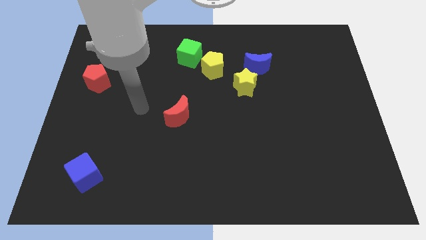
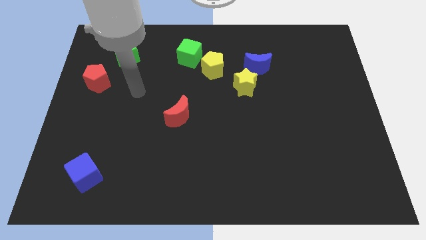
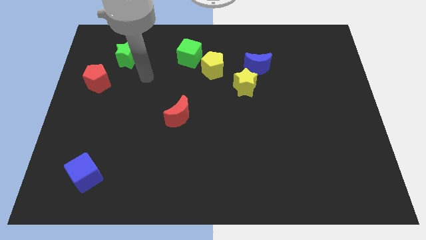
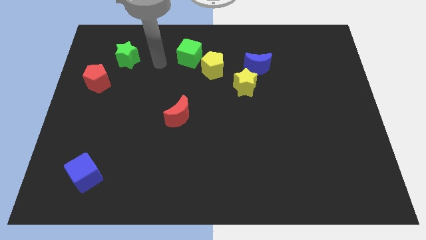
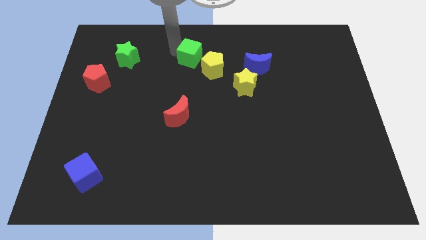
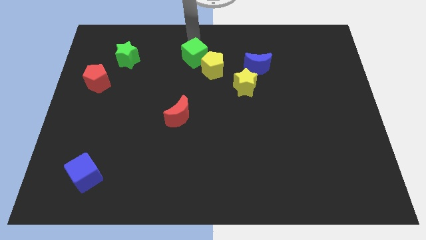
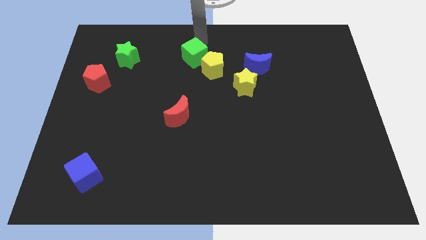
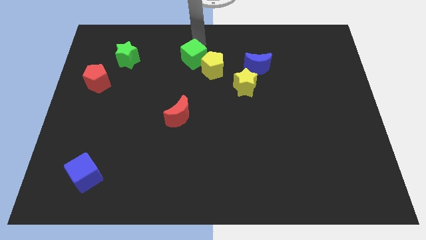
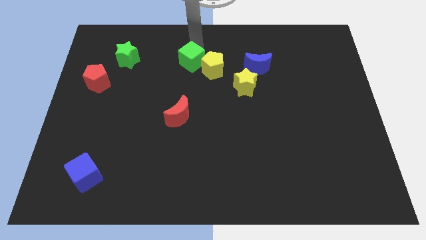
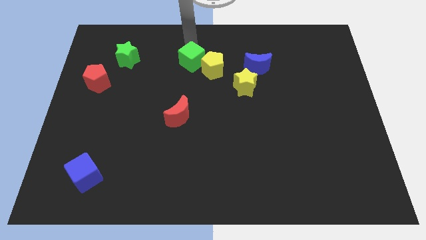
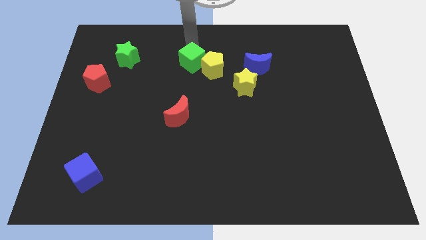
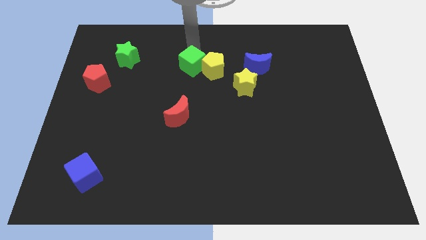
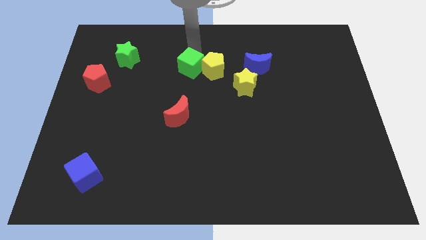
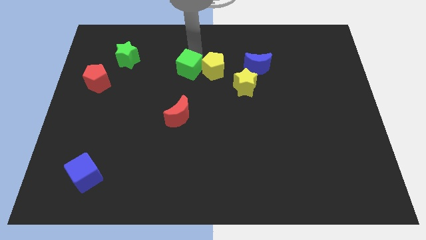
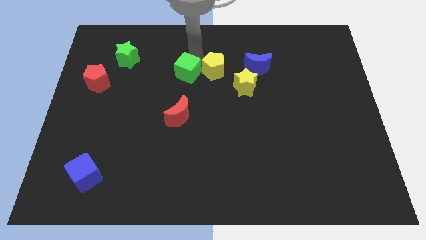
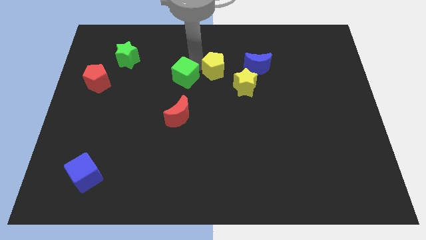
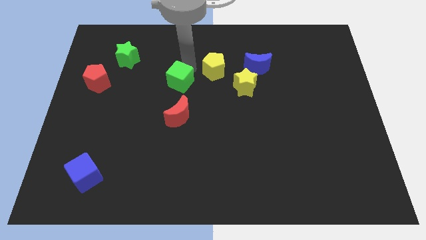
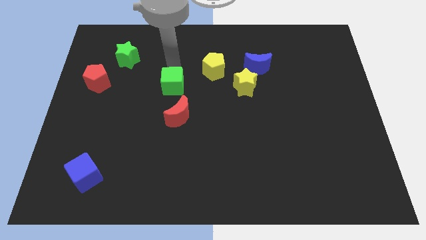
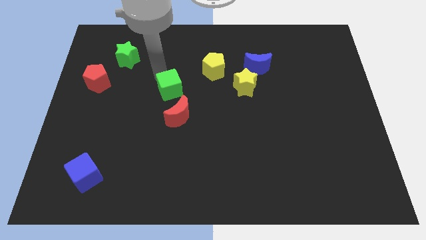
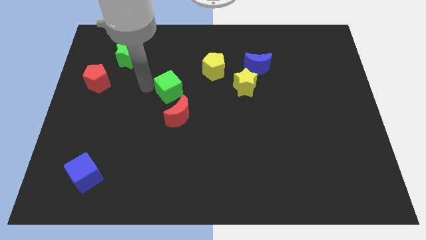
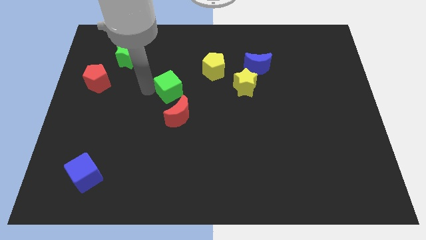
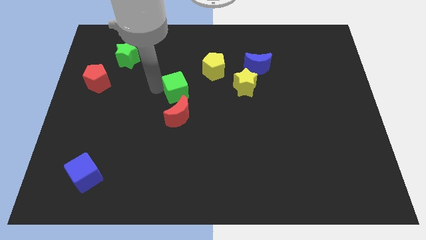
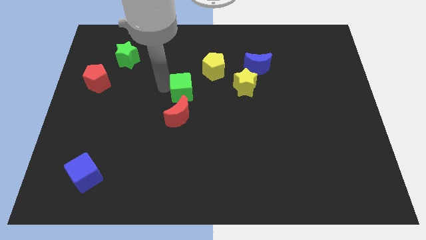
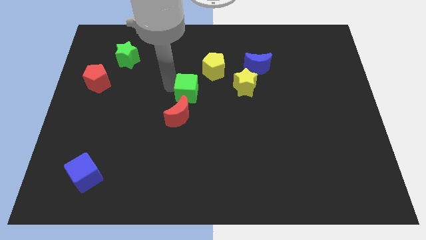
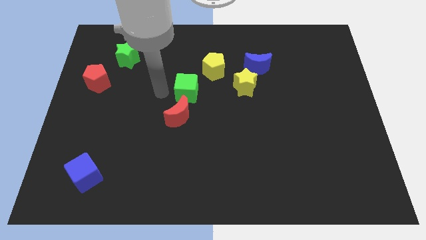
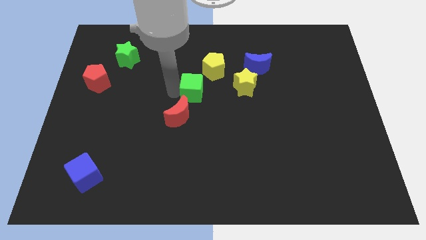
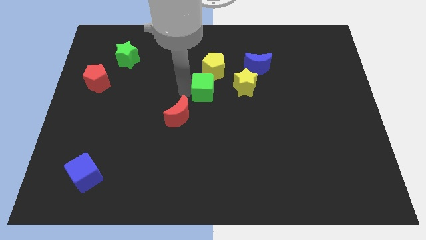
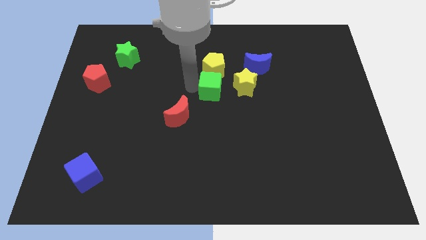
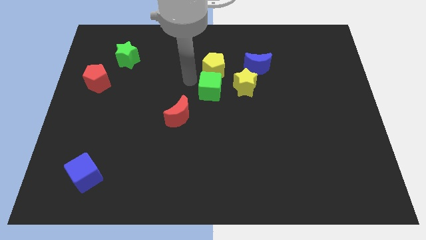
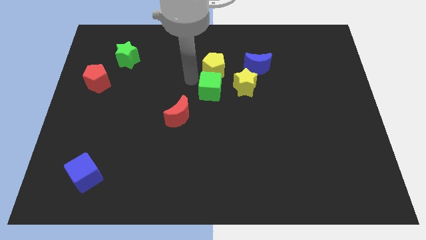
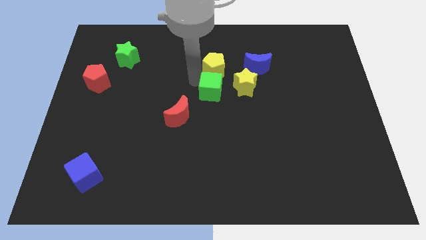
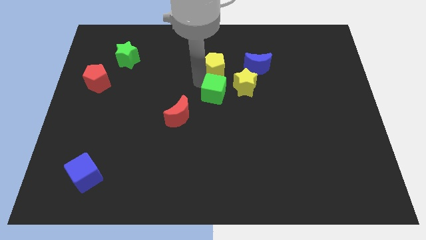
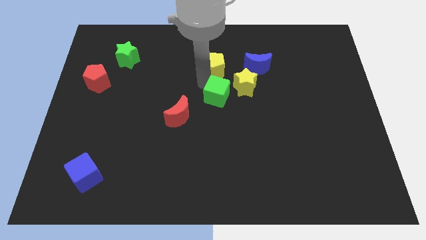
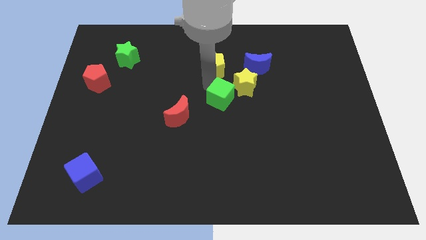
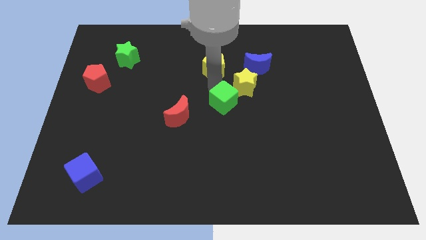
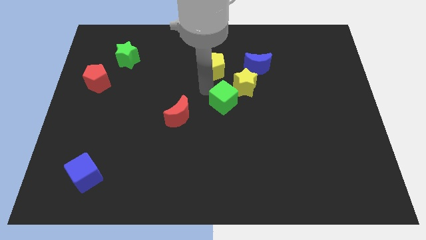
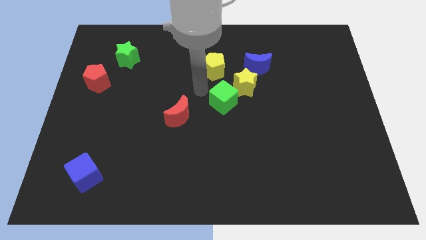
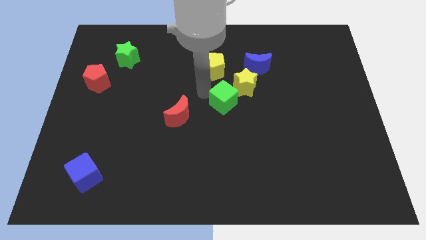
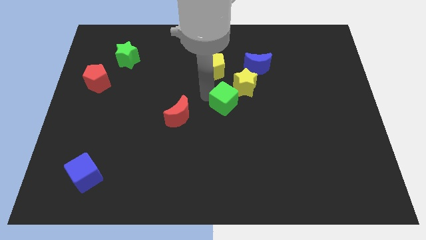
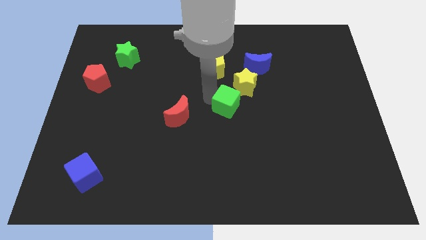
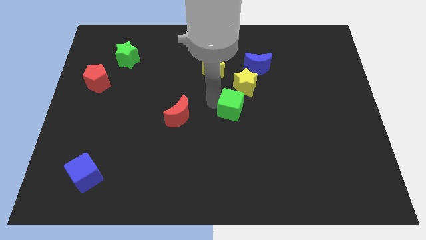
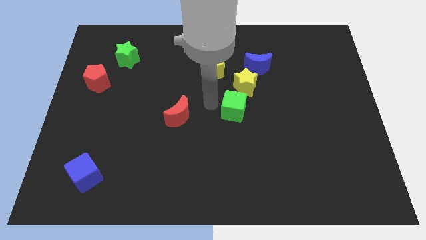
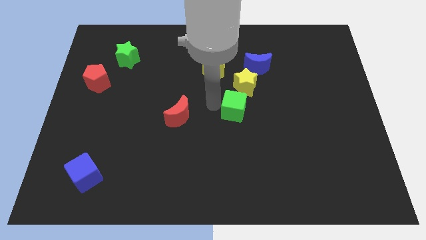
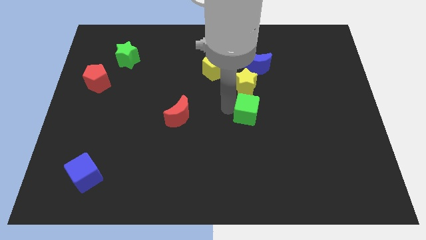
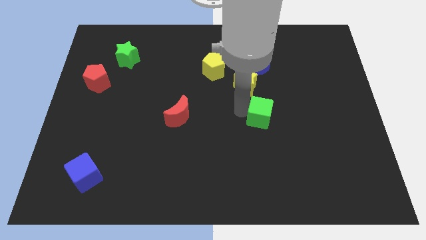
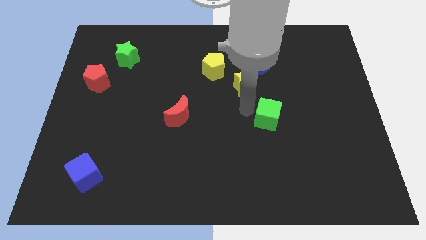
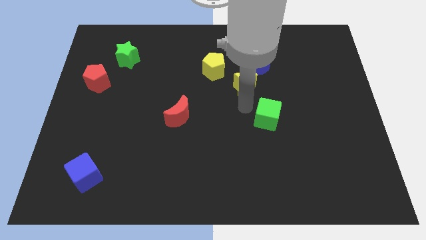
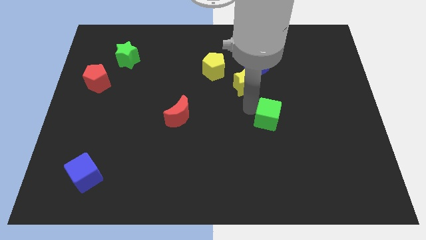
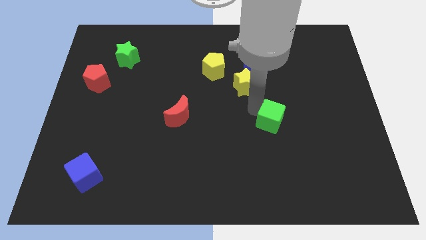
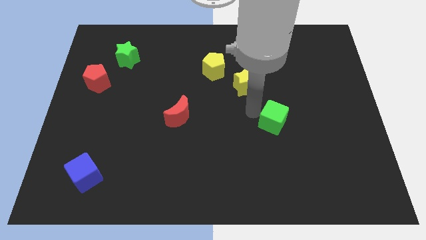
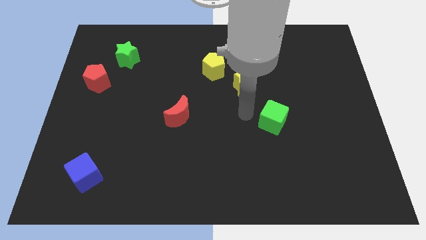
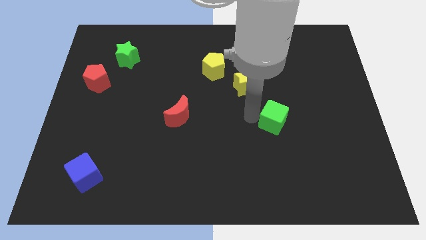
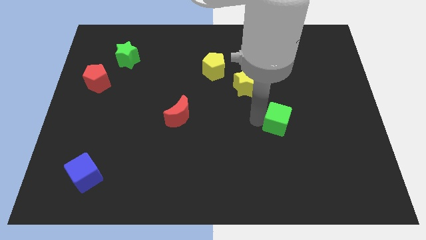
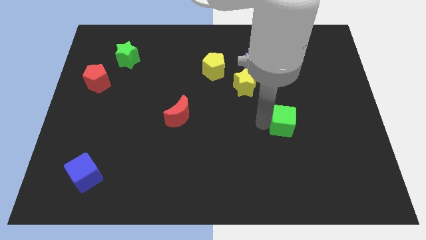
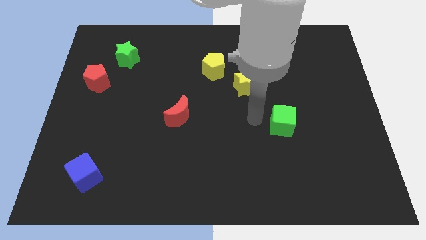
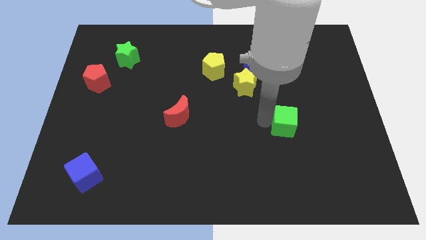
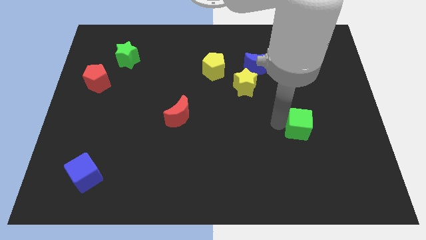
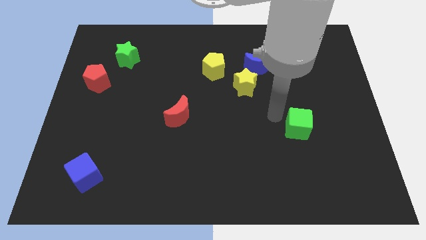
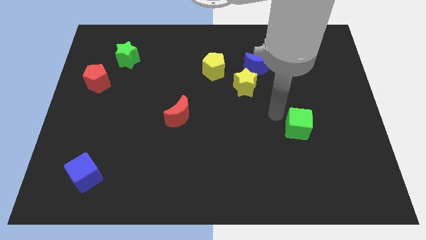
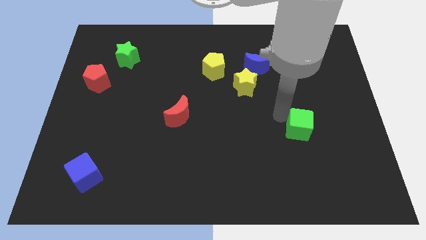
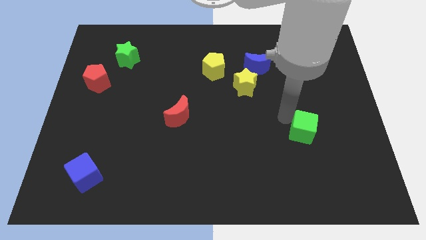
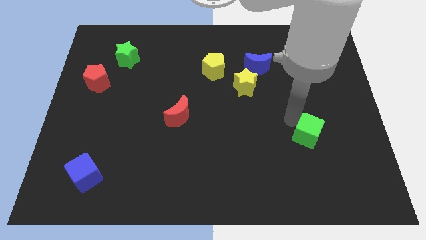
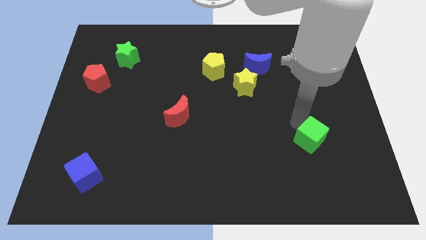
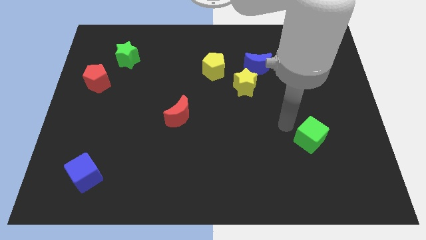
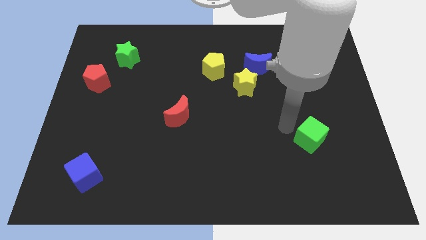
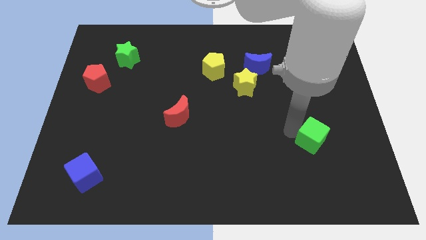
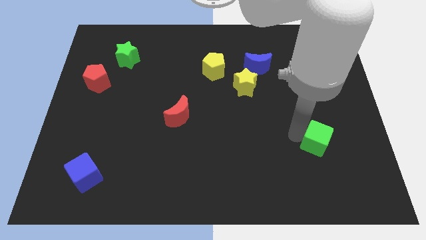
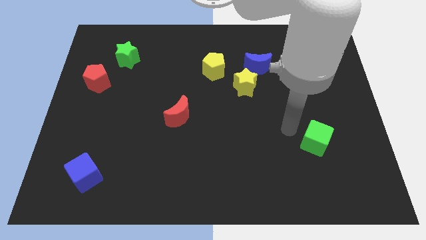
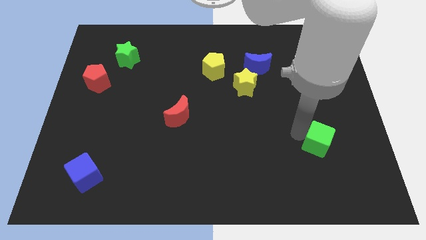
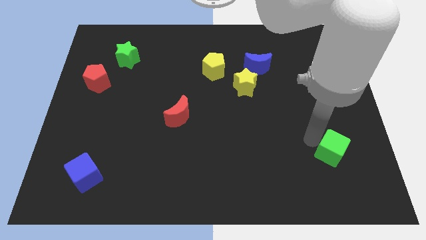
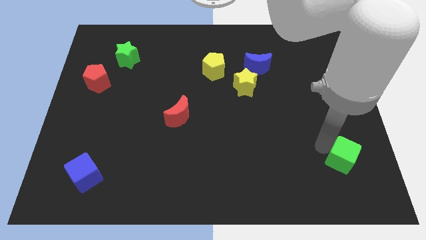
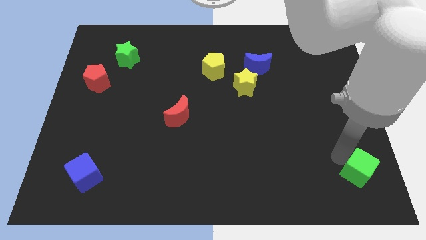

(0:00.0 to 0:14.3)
put the green cube to the lower right corner
